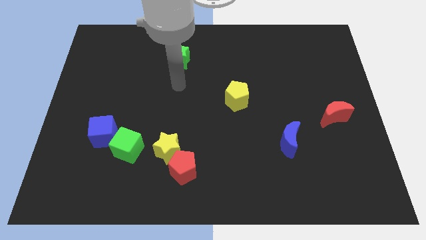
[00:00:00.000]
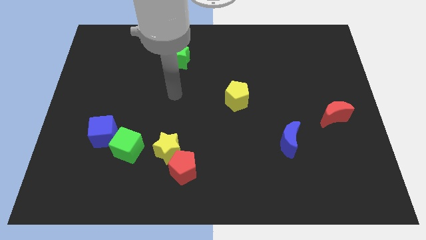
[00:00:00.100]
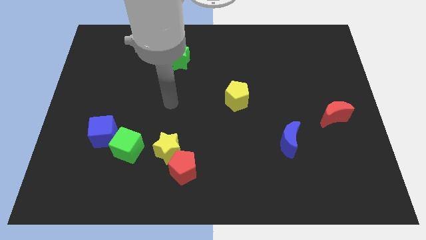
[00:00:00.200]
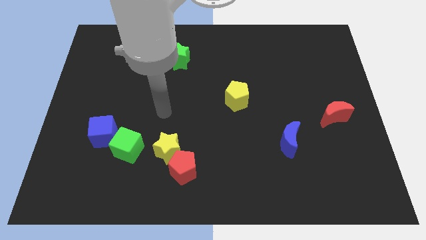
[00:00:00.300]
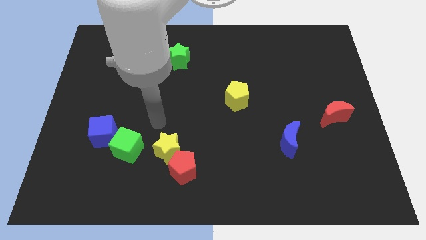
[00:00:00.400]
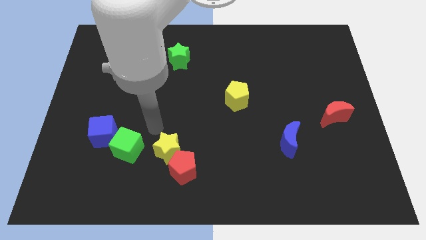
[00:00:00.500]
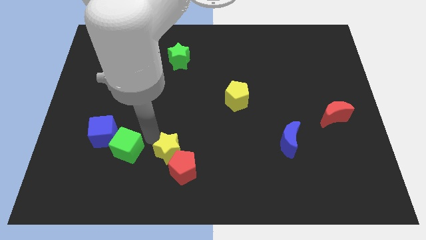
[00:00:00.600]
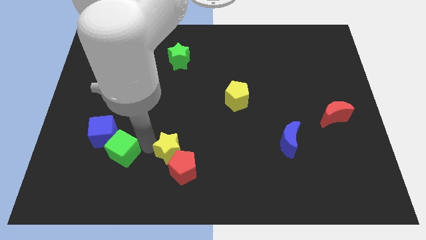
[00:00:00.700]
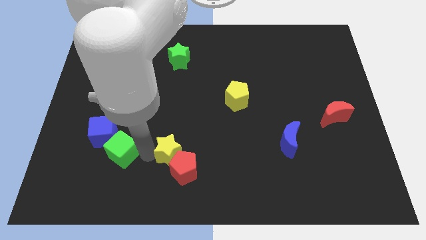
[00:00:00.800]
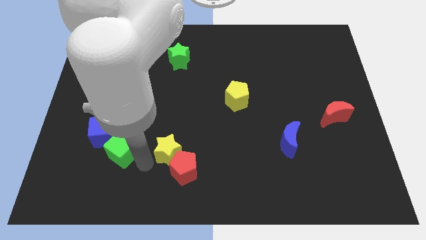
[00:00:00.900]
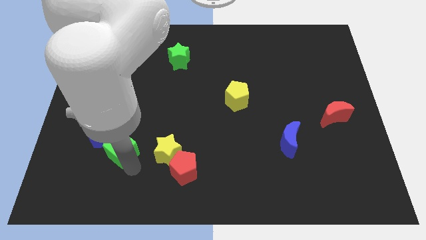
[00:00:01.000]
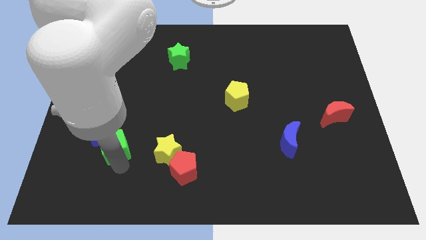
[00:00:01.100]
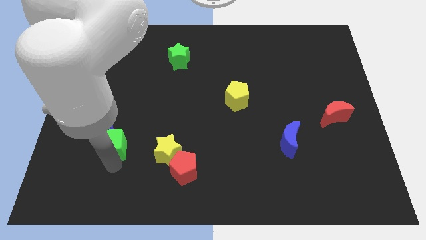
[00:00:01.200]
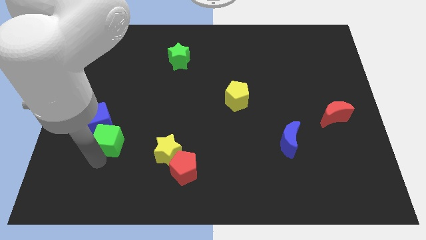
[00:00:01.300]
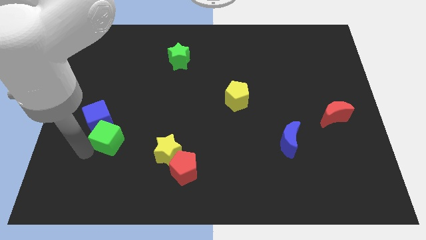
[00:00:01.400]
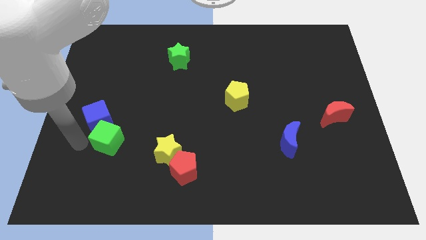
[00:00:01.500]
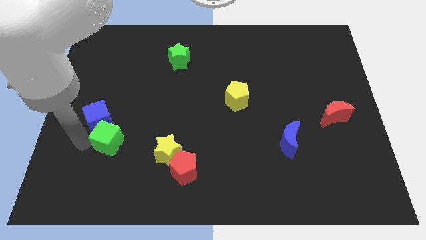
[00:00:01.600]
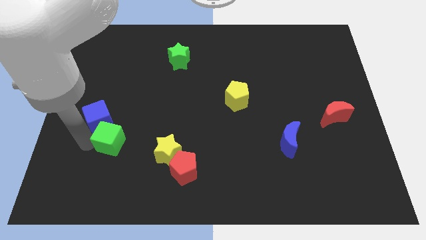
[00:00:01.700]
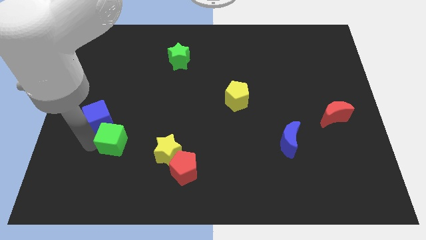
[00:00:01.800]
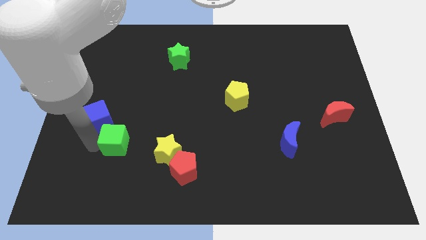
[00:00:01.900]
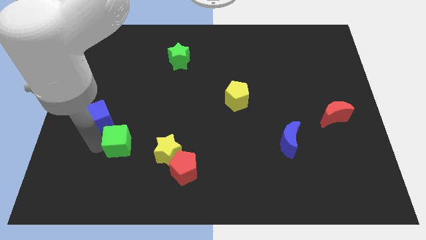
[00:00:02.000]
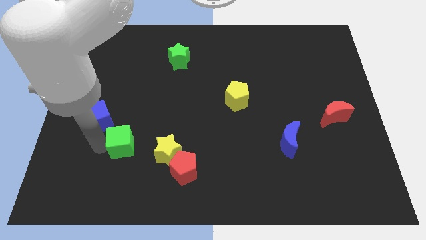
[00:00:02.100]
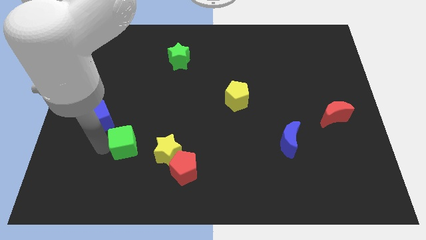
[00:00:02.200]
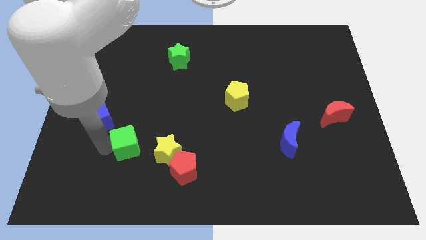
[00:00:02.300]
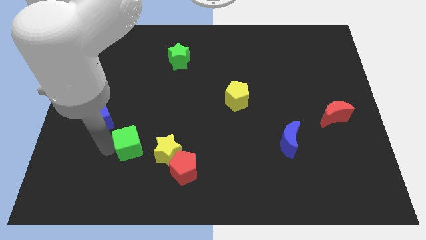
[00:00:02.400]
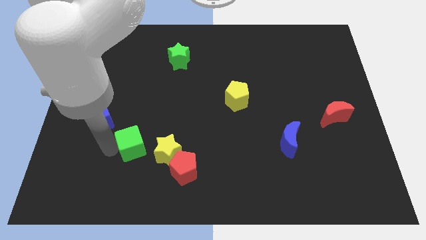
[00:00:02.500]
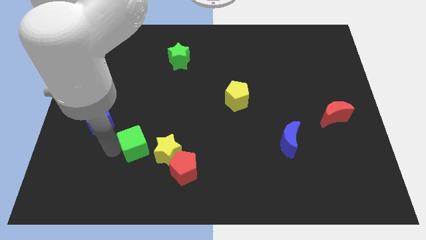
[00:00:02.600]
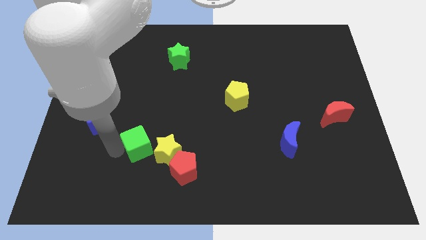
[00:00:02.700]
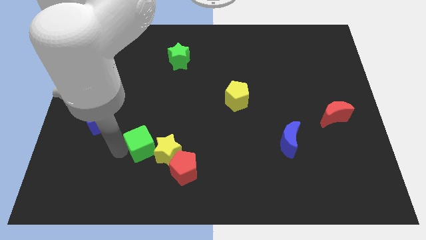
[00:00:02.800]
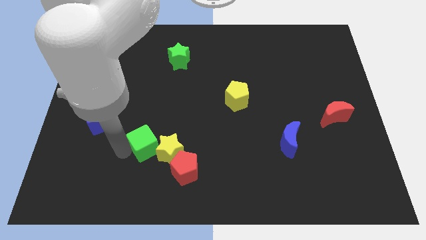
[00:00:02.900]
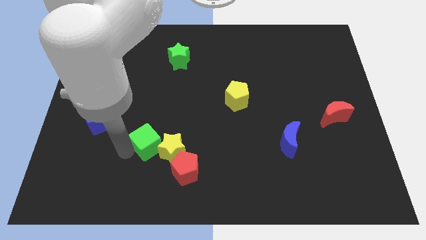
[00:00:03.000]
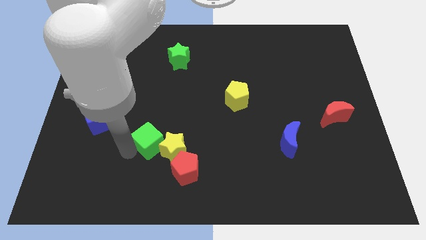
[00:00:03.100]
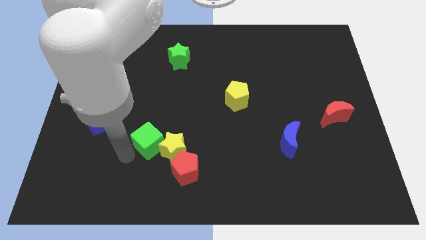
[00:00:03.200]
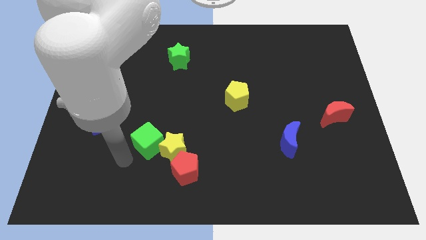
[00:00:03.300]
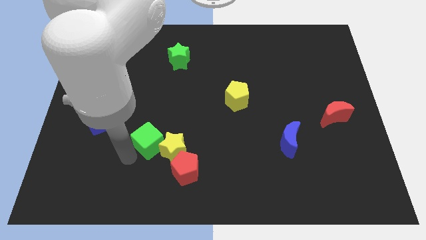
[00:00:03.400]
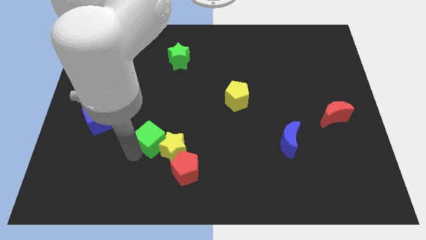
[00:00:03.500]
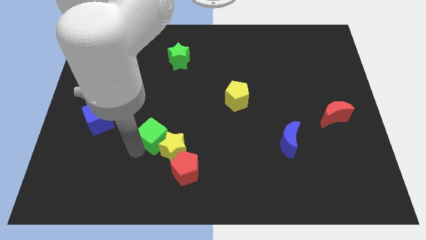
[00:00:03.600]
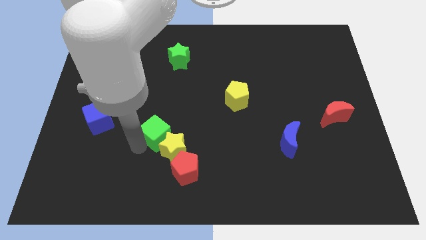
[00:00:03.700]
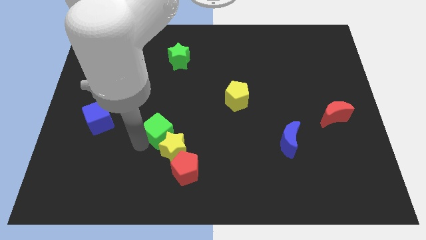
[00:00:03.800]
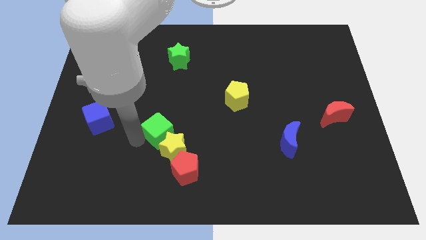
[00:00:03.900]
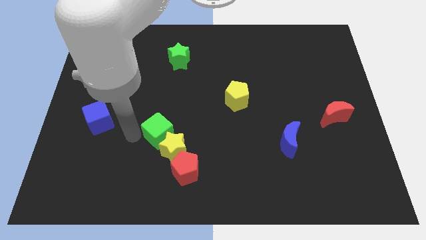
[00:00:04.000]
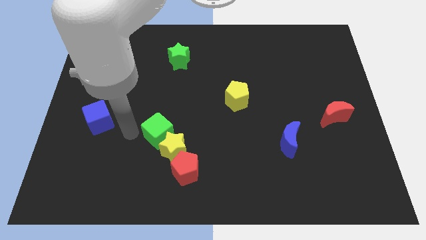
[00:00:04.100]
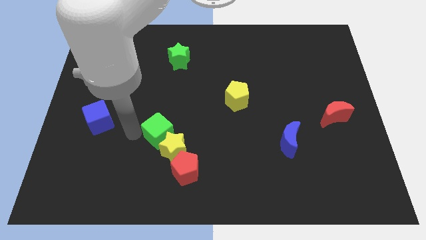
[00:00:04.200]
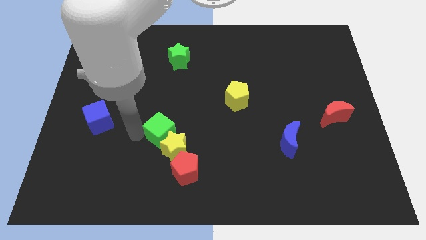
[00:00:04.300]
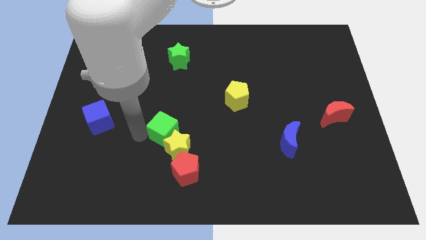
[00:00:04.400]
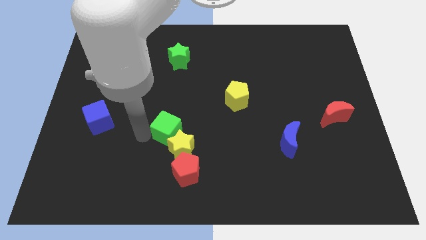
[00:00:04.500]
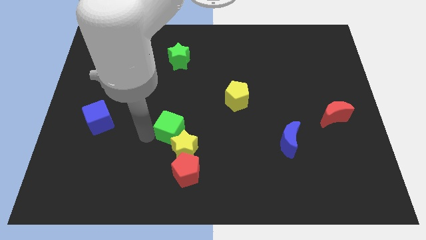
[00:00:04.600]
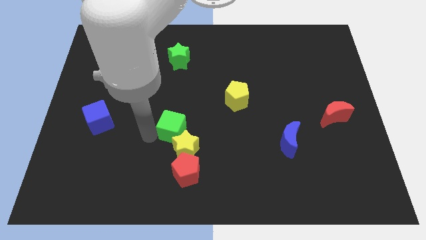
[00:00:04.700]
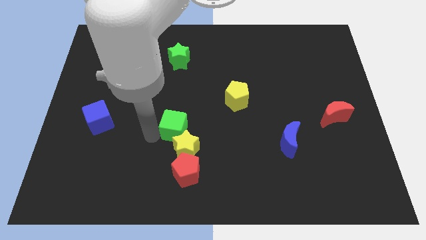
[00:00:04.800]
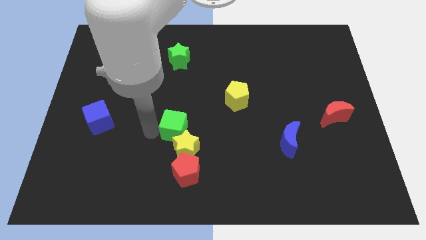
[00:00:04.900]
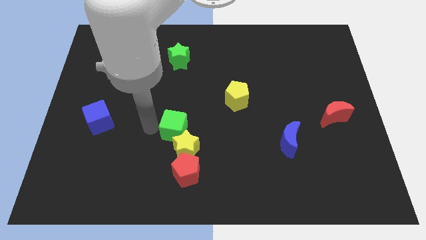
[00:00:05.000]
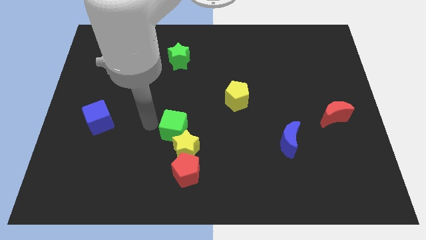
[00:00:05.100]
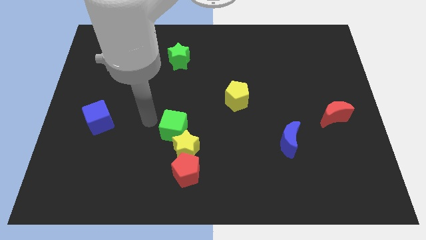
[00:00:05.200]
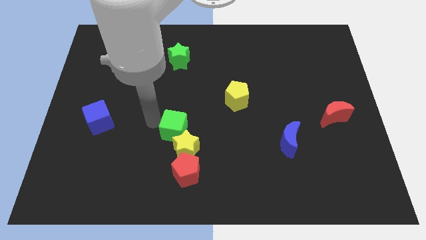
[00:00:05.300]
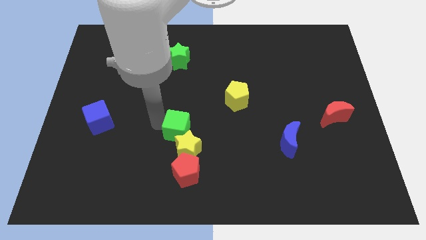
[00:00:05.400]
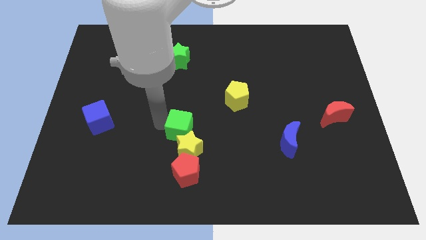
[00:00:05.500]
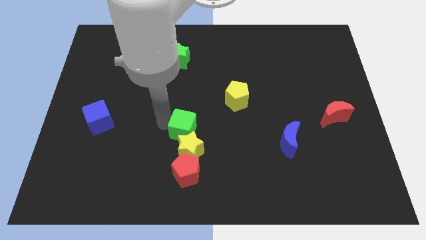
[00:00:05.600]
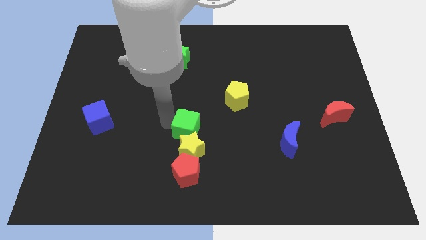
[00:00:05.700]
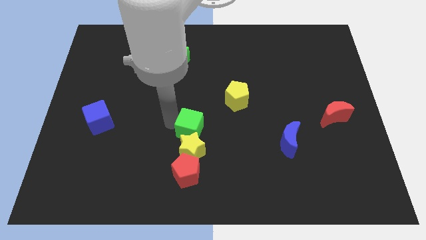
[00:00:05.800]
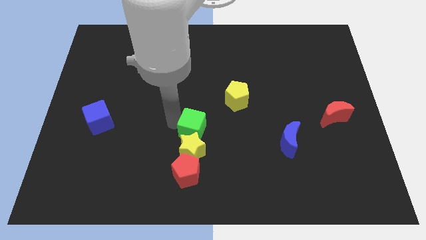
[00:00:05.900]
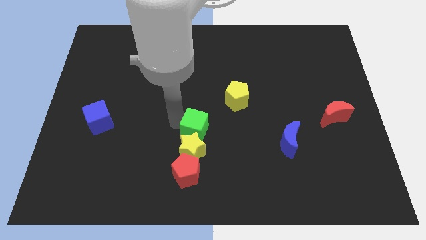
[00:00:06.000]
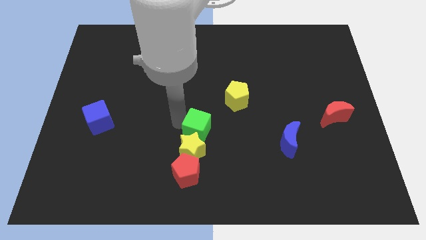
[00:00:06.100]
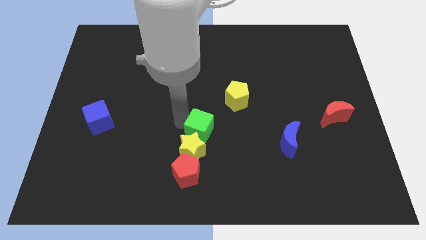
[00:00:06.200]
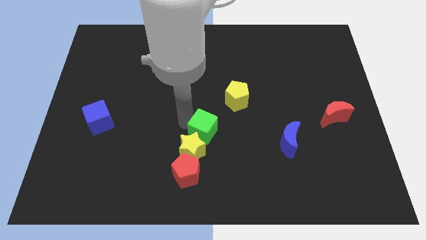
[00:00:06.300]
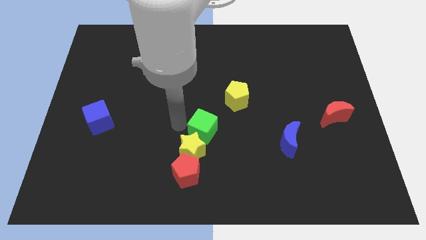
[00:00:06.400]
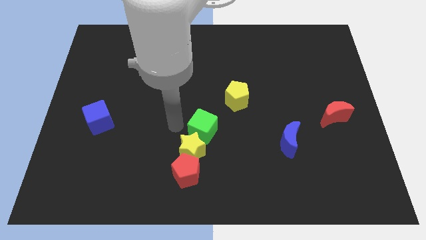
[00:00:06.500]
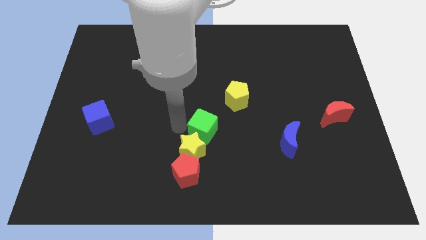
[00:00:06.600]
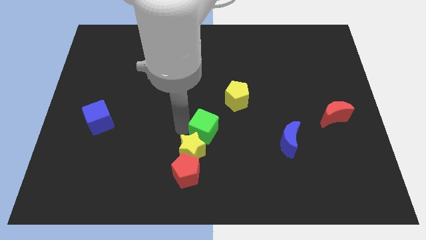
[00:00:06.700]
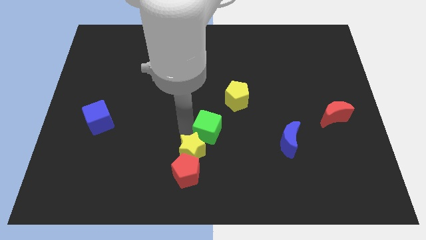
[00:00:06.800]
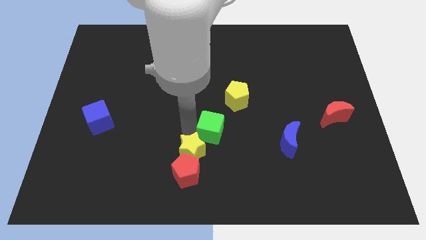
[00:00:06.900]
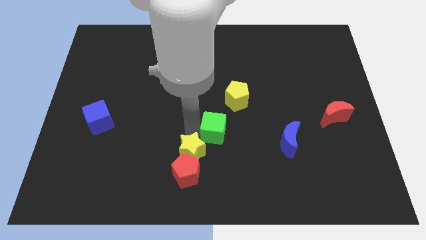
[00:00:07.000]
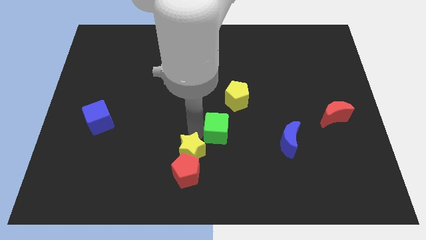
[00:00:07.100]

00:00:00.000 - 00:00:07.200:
slide the green cube below the yellow pentagon

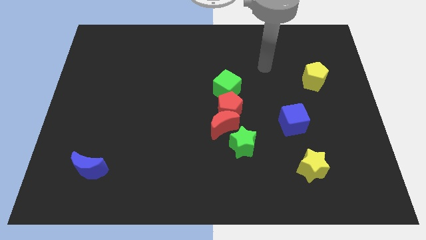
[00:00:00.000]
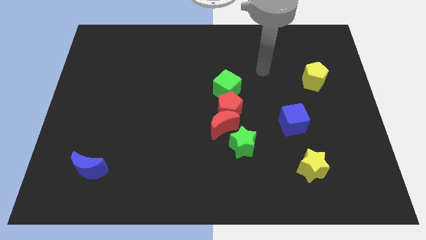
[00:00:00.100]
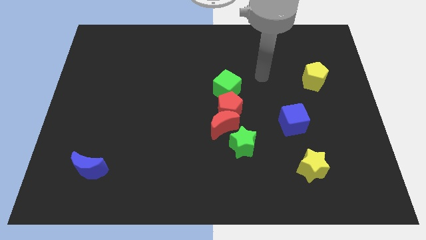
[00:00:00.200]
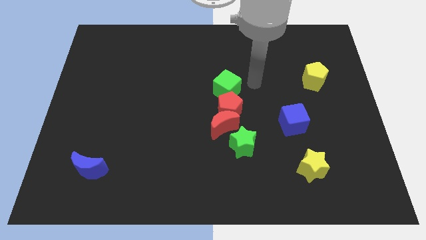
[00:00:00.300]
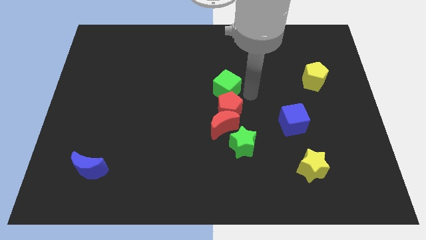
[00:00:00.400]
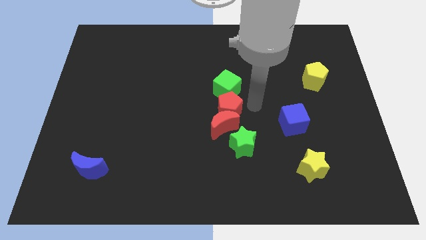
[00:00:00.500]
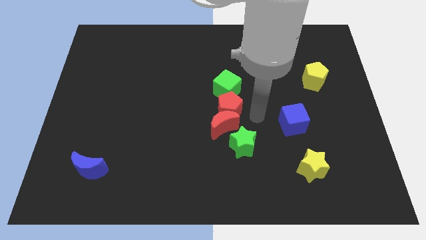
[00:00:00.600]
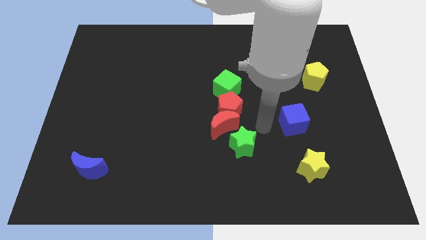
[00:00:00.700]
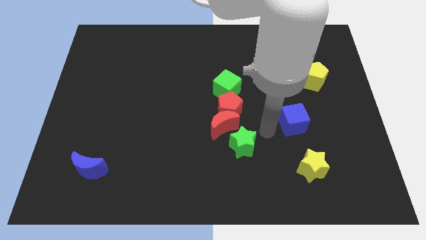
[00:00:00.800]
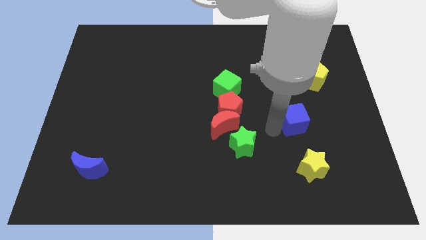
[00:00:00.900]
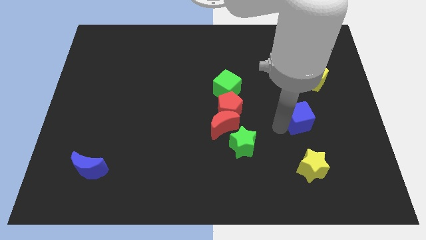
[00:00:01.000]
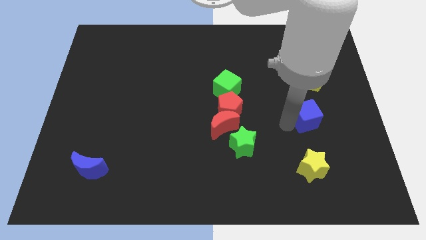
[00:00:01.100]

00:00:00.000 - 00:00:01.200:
put the blue cube below the yellow pentagon
